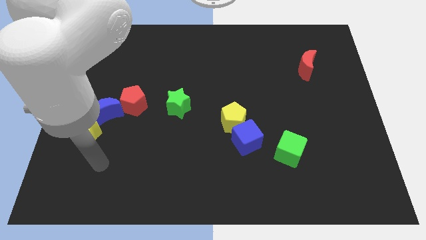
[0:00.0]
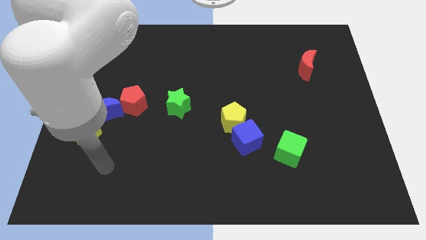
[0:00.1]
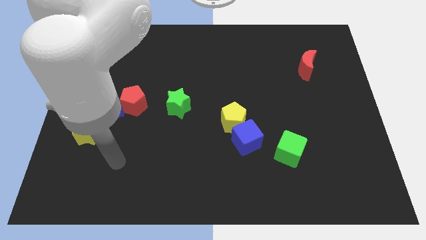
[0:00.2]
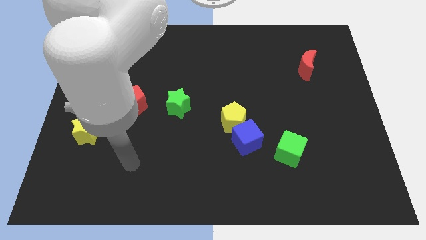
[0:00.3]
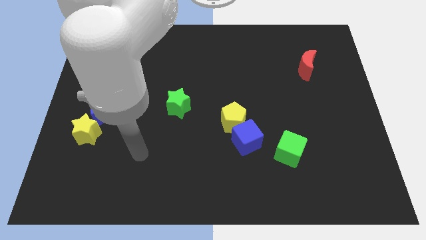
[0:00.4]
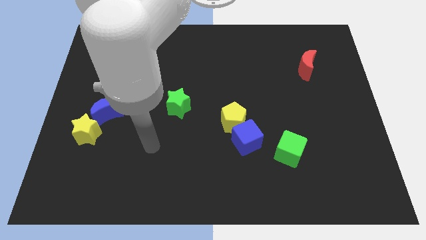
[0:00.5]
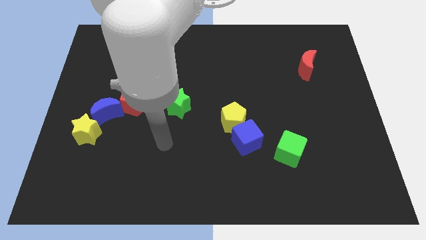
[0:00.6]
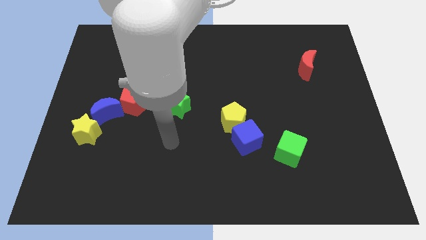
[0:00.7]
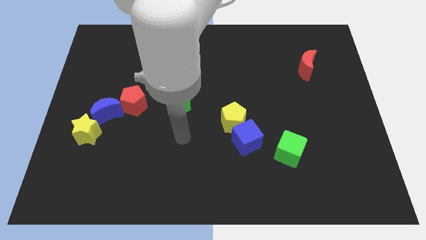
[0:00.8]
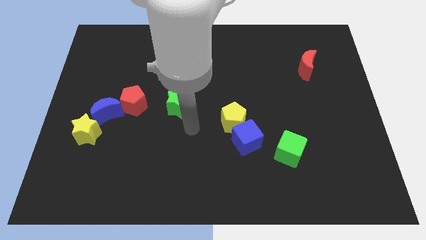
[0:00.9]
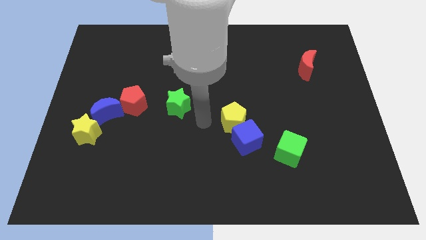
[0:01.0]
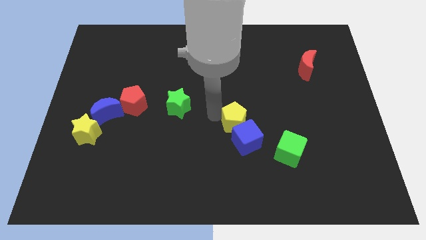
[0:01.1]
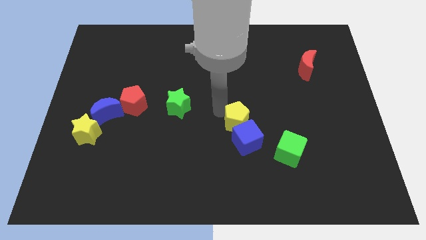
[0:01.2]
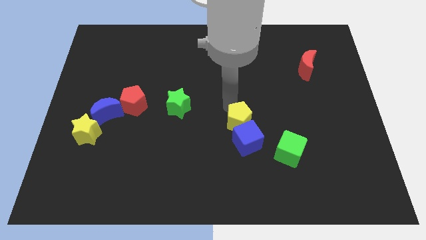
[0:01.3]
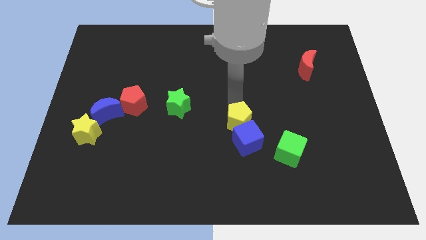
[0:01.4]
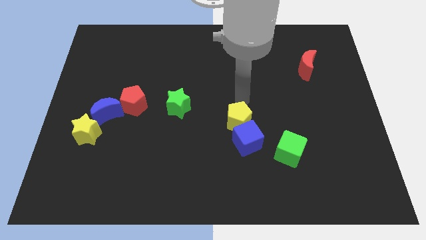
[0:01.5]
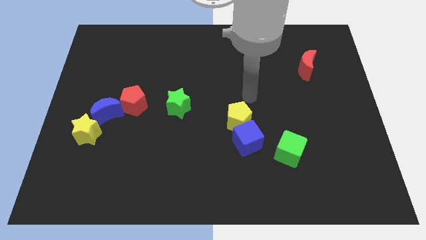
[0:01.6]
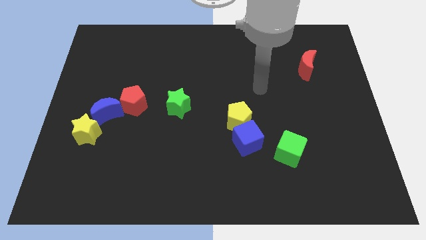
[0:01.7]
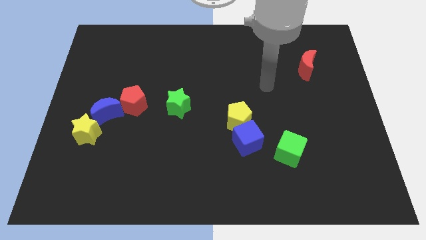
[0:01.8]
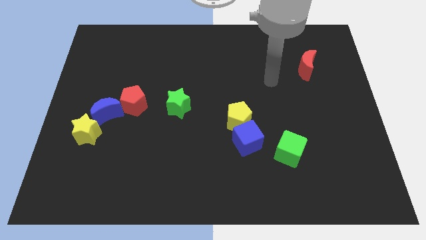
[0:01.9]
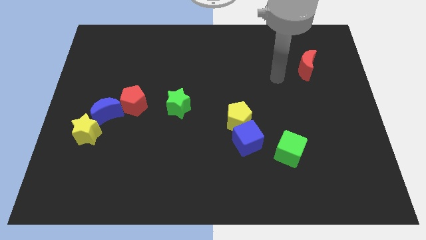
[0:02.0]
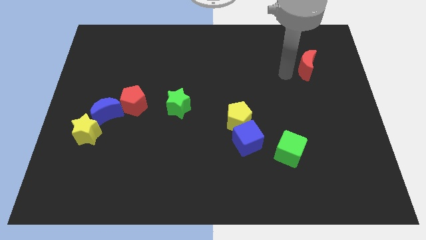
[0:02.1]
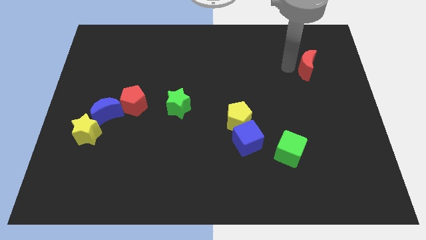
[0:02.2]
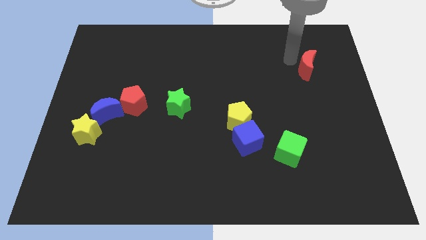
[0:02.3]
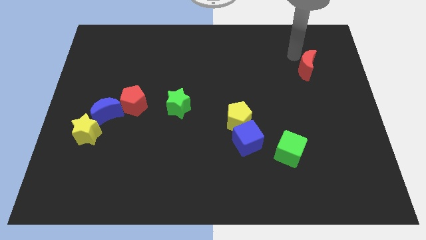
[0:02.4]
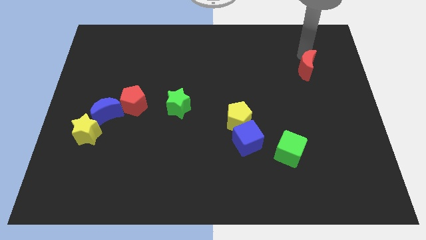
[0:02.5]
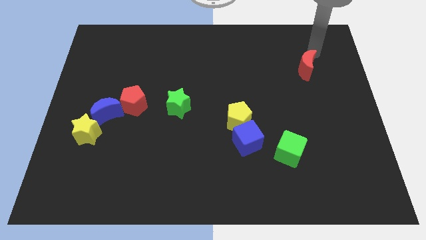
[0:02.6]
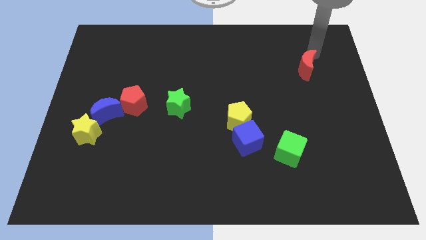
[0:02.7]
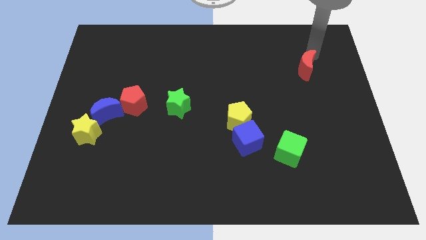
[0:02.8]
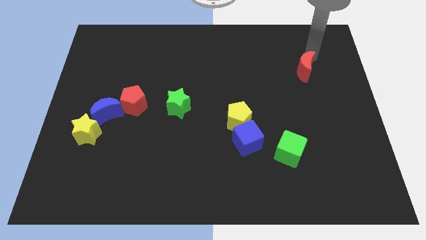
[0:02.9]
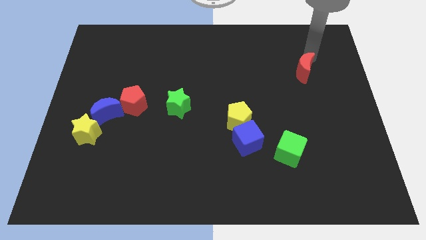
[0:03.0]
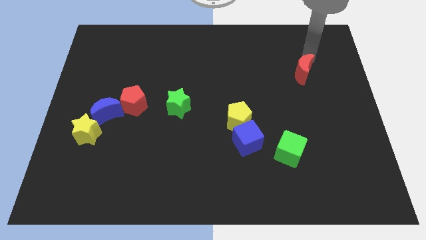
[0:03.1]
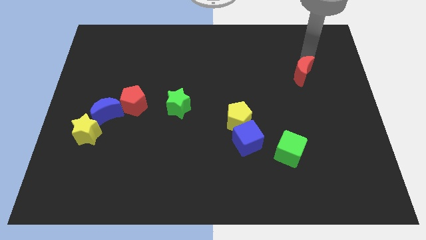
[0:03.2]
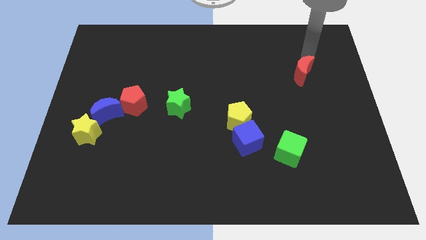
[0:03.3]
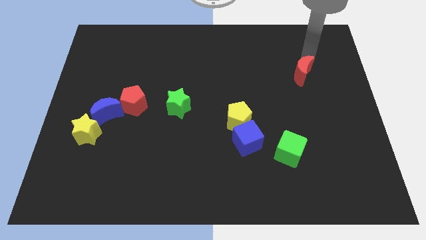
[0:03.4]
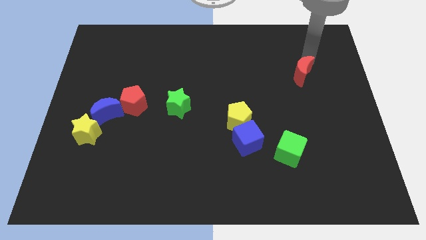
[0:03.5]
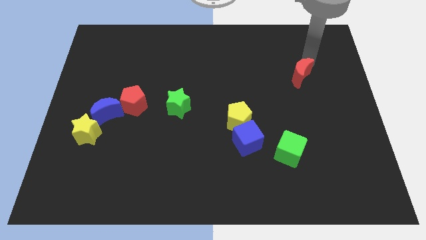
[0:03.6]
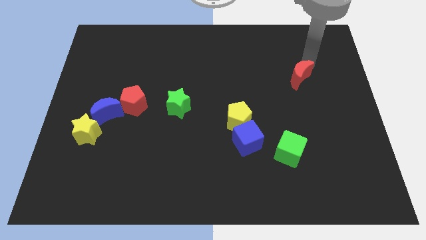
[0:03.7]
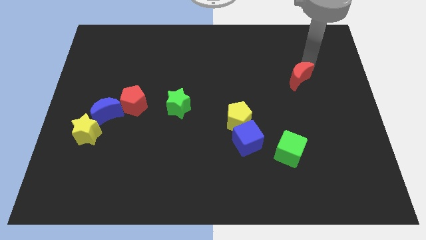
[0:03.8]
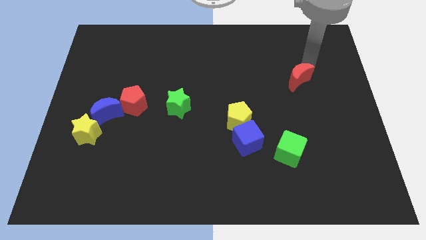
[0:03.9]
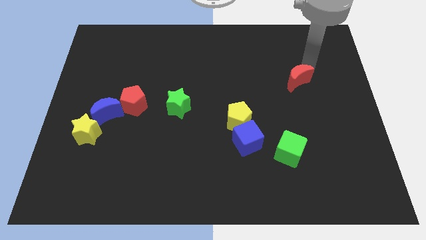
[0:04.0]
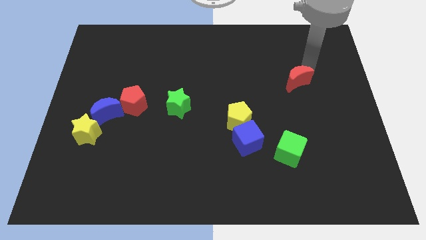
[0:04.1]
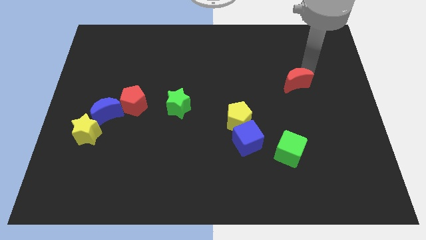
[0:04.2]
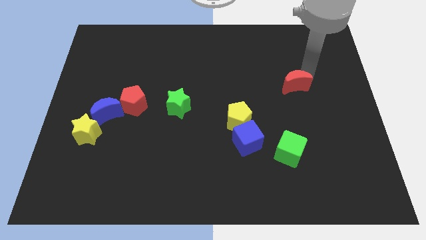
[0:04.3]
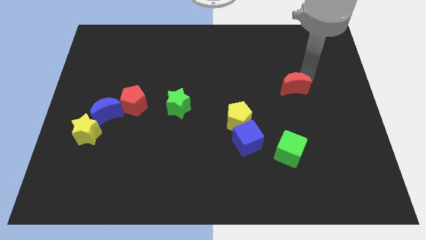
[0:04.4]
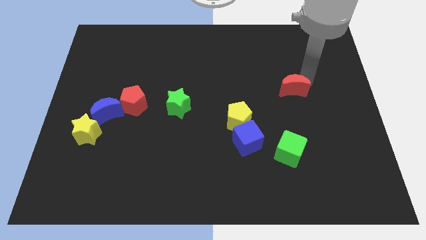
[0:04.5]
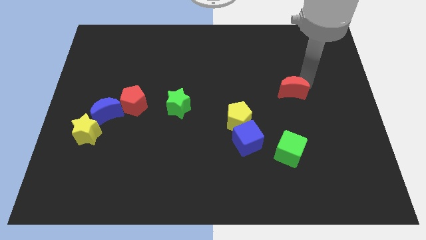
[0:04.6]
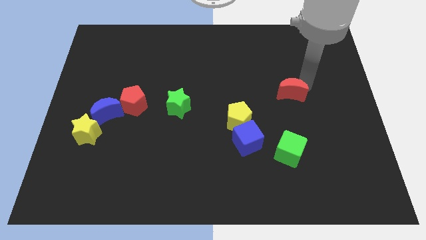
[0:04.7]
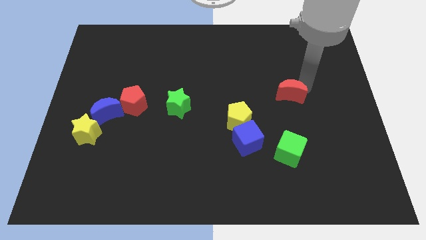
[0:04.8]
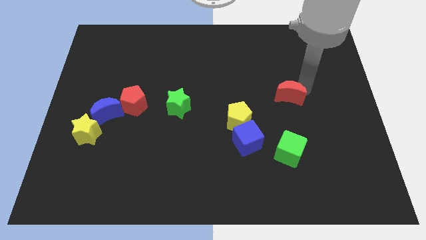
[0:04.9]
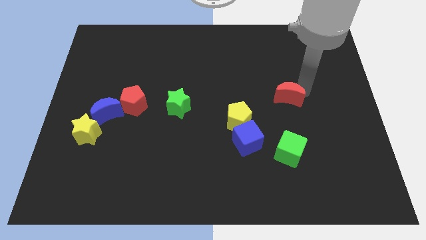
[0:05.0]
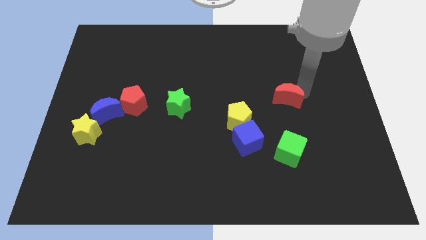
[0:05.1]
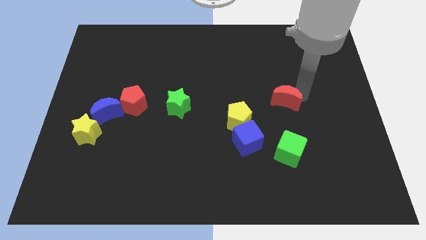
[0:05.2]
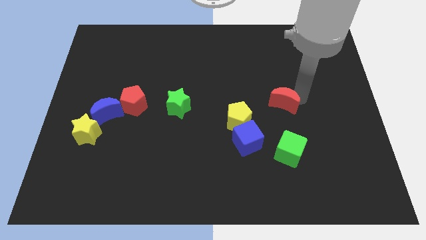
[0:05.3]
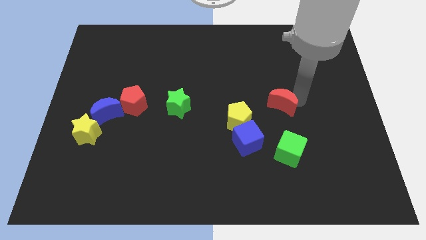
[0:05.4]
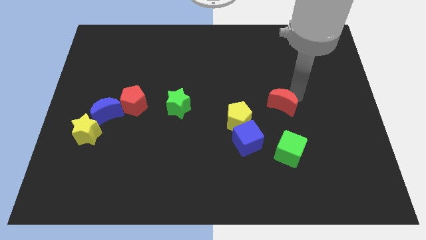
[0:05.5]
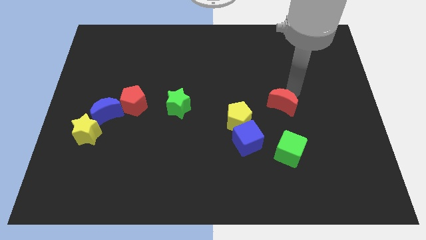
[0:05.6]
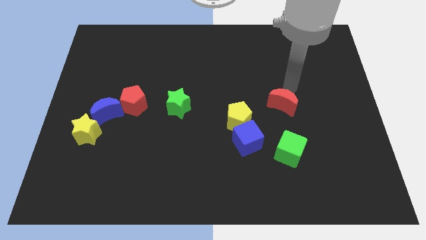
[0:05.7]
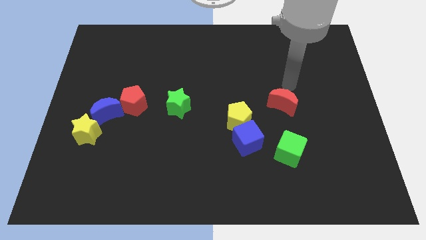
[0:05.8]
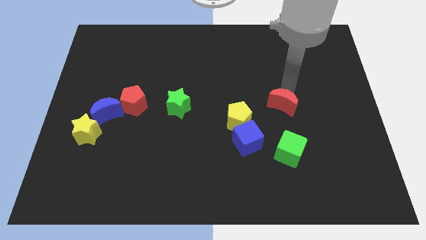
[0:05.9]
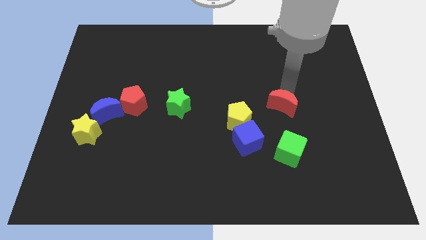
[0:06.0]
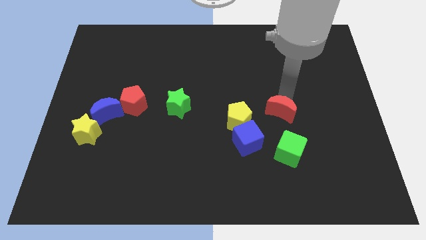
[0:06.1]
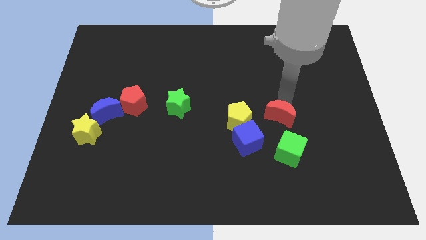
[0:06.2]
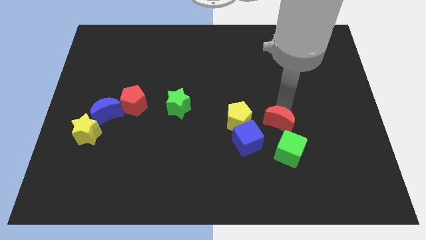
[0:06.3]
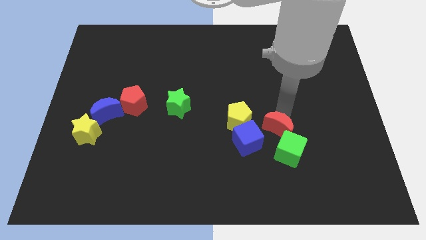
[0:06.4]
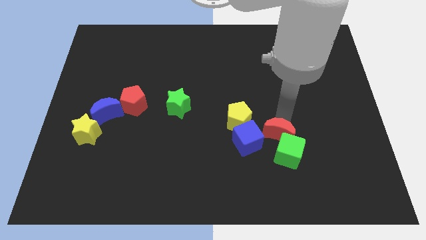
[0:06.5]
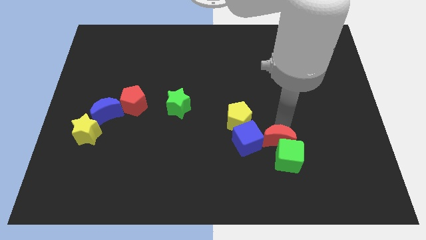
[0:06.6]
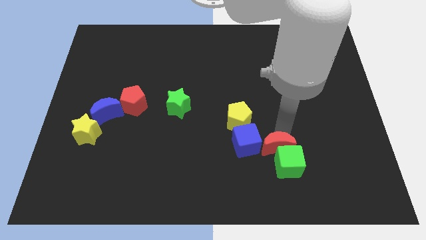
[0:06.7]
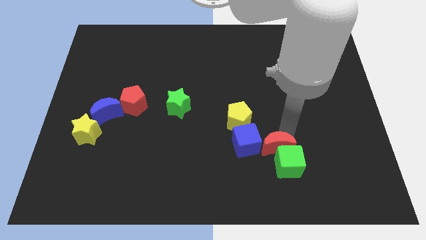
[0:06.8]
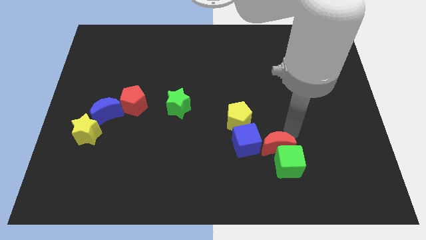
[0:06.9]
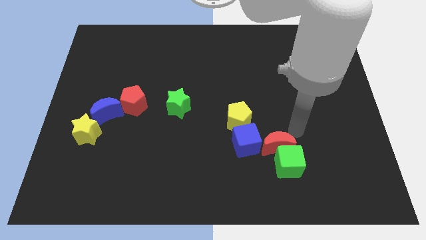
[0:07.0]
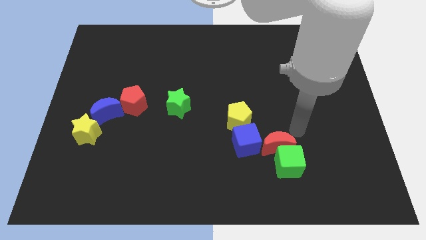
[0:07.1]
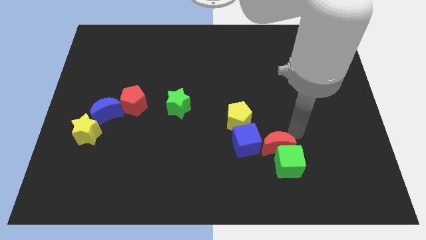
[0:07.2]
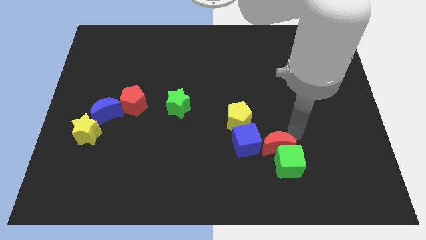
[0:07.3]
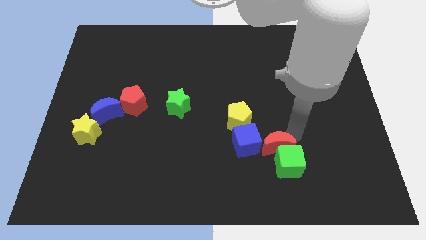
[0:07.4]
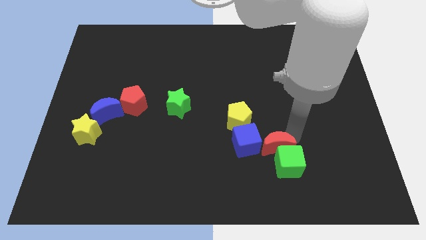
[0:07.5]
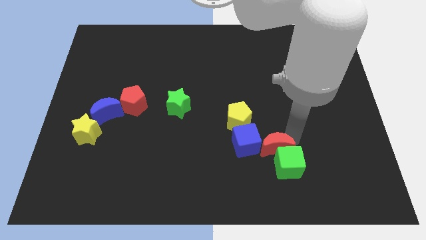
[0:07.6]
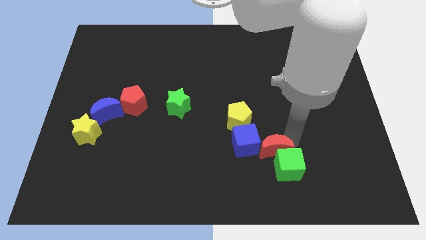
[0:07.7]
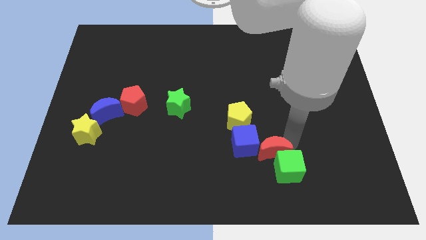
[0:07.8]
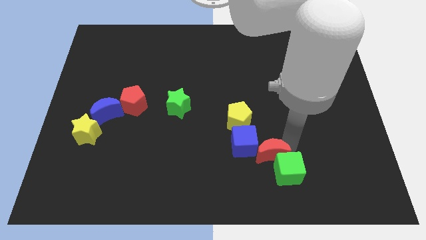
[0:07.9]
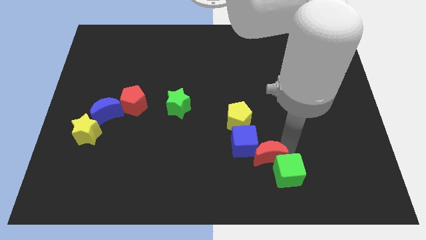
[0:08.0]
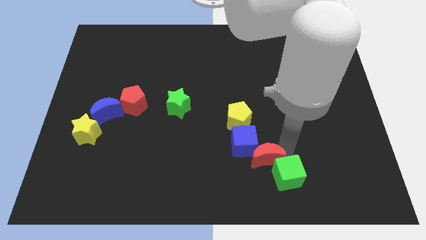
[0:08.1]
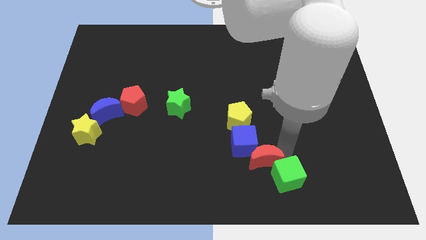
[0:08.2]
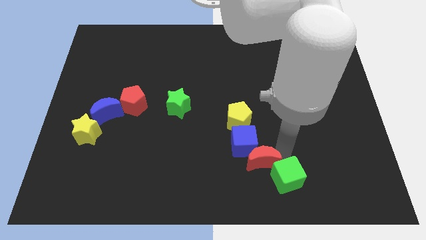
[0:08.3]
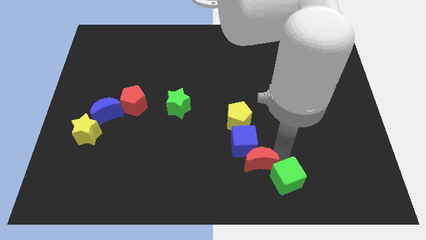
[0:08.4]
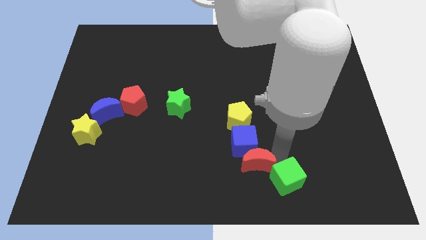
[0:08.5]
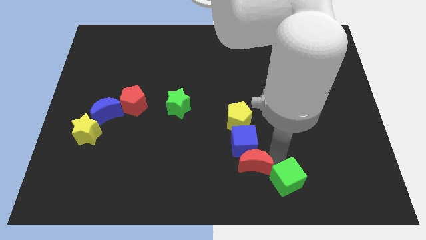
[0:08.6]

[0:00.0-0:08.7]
slide the red moon to the bottom
